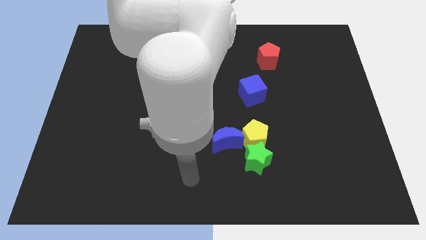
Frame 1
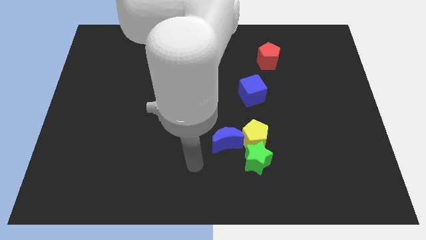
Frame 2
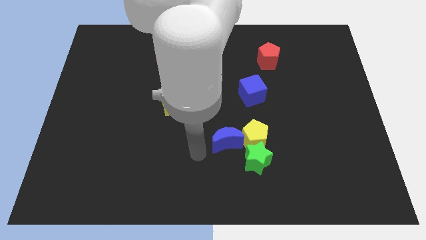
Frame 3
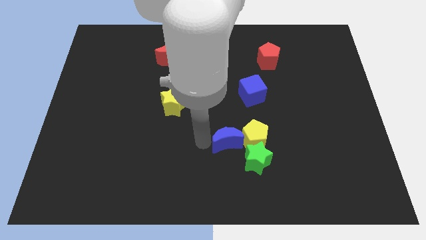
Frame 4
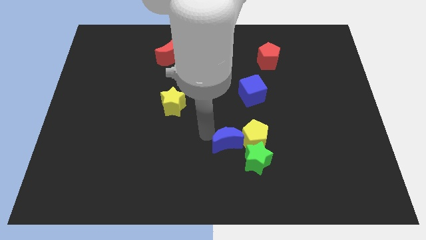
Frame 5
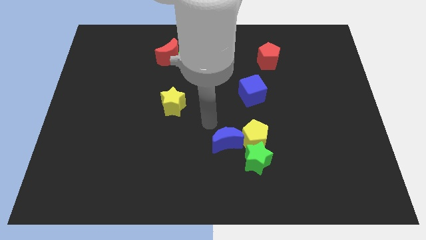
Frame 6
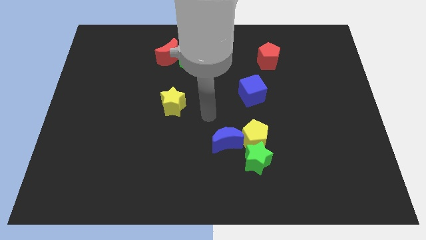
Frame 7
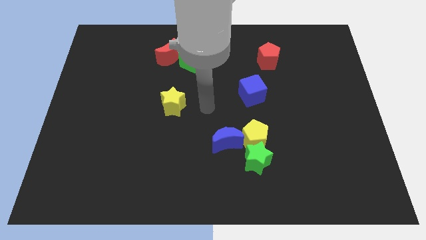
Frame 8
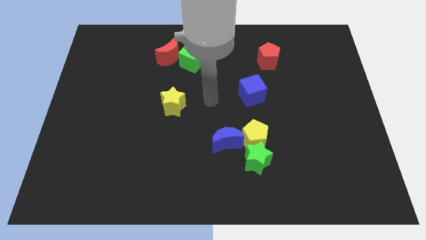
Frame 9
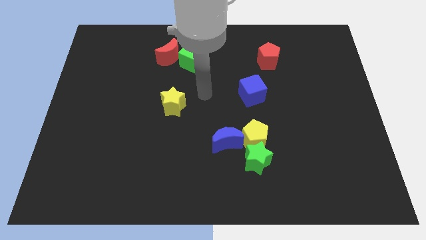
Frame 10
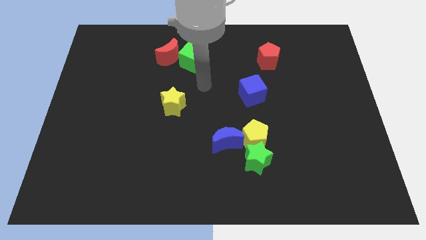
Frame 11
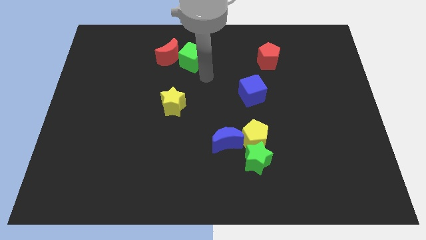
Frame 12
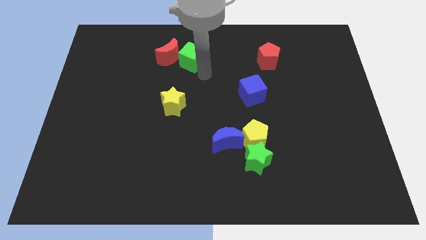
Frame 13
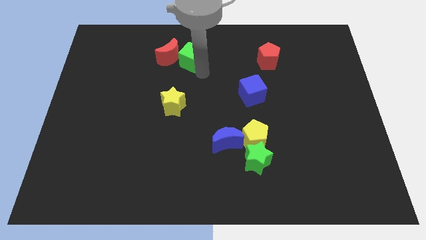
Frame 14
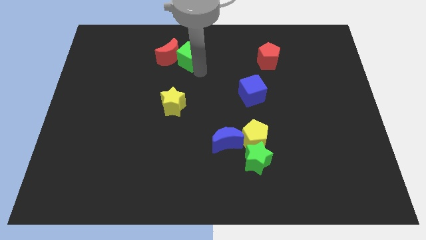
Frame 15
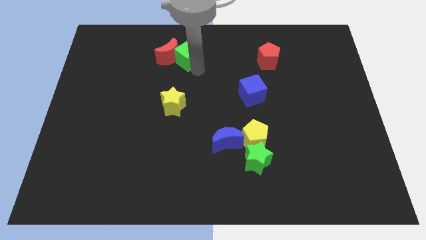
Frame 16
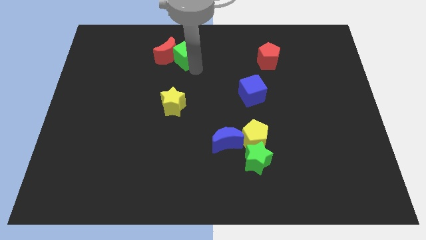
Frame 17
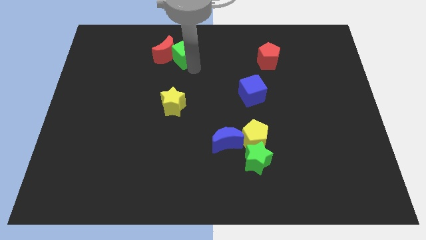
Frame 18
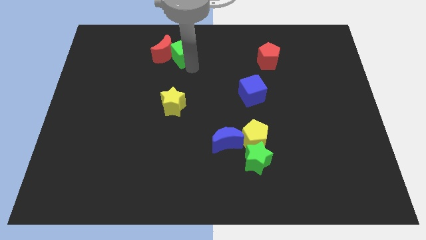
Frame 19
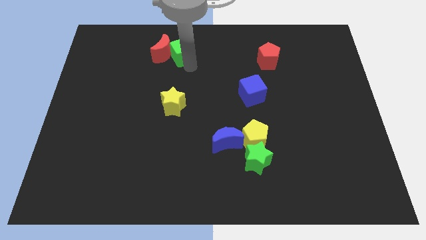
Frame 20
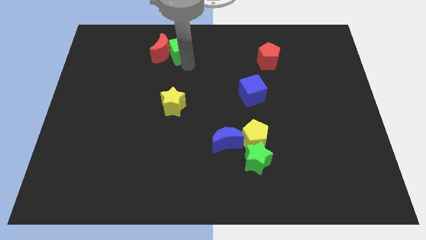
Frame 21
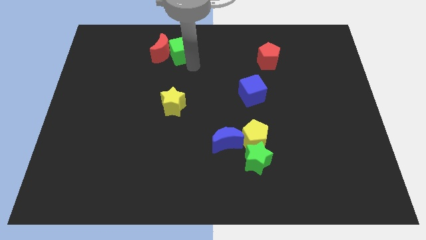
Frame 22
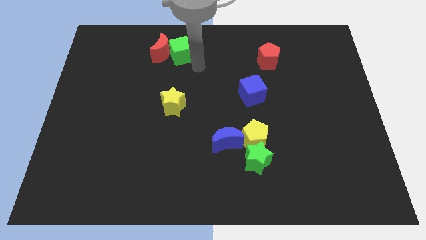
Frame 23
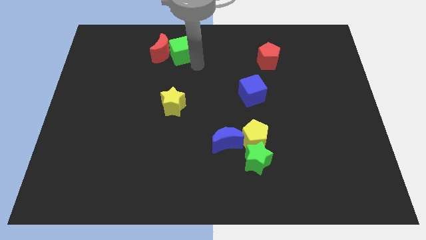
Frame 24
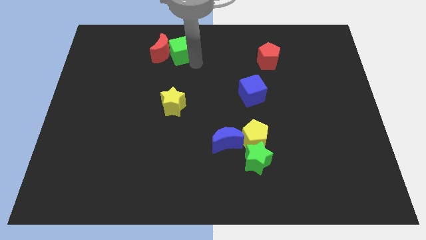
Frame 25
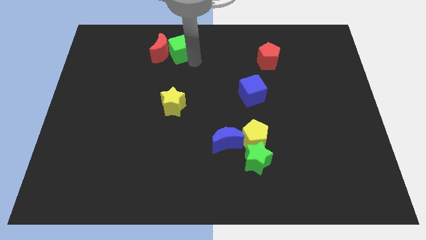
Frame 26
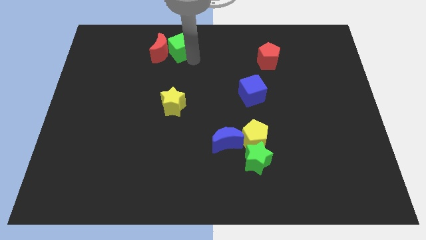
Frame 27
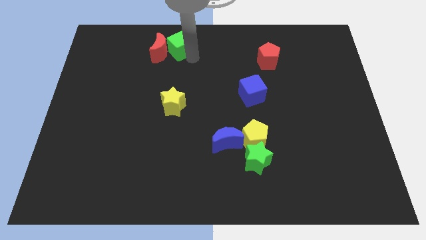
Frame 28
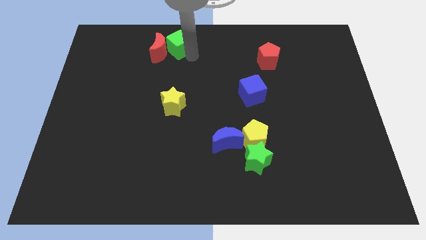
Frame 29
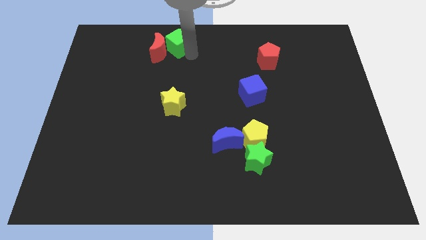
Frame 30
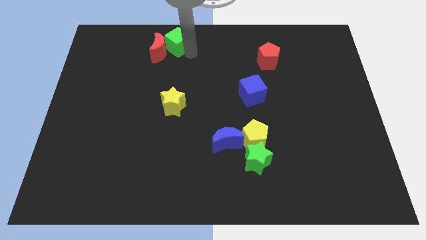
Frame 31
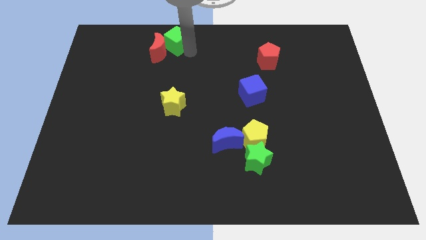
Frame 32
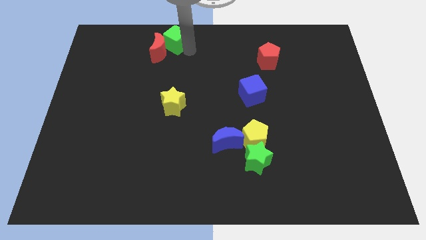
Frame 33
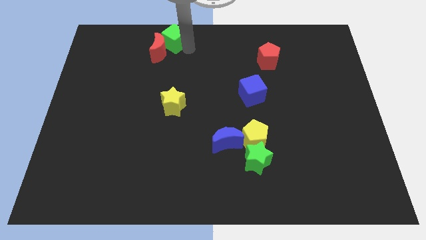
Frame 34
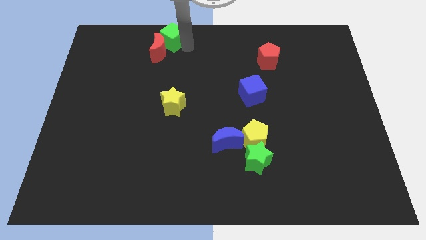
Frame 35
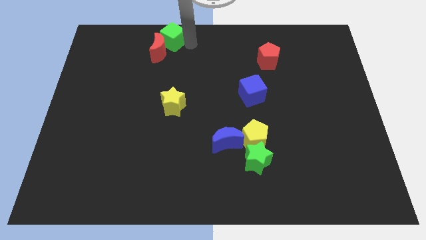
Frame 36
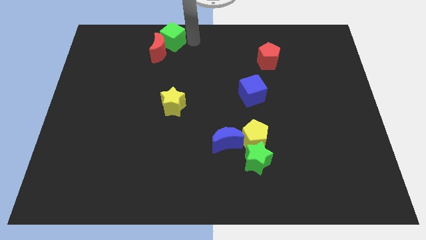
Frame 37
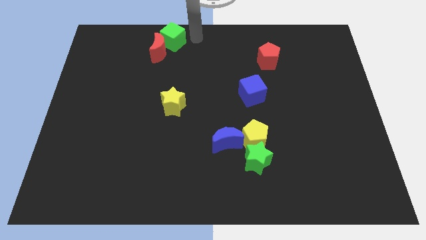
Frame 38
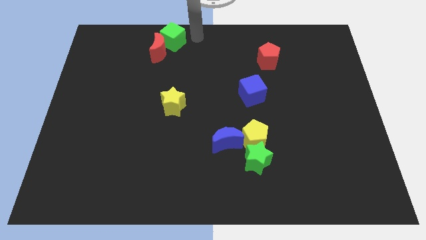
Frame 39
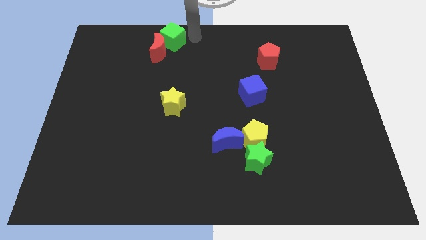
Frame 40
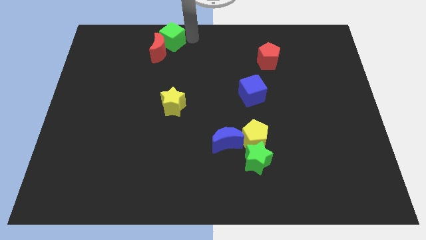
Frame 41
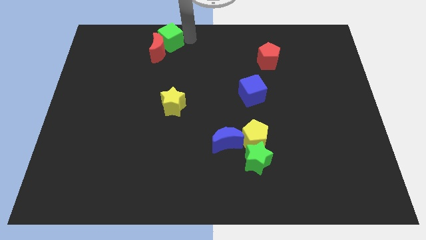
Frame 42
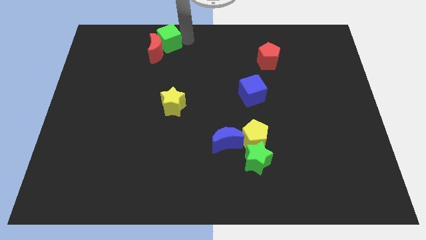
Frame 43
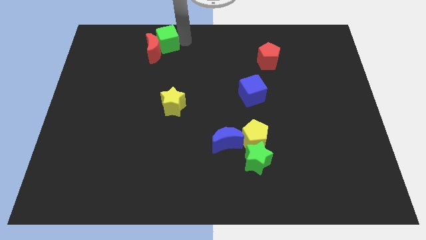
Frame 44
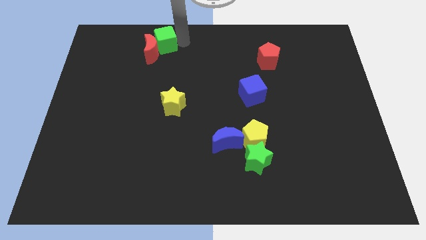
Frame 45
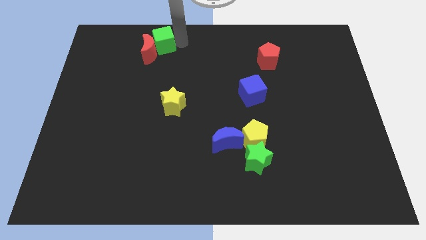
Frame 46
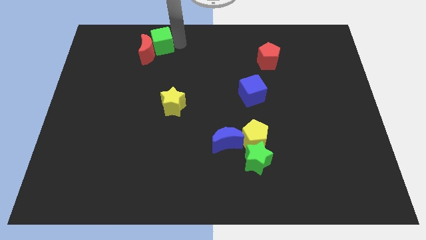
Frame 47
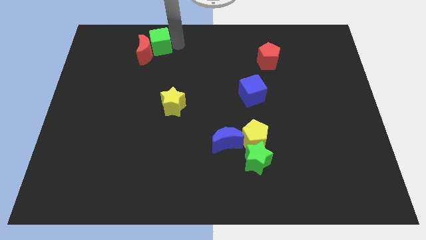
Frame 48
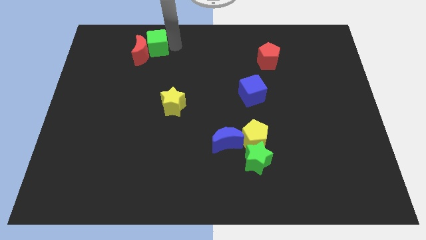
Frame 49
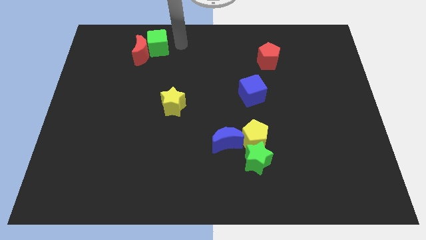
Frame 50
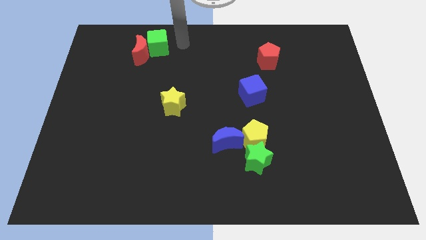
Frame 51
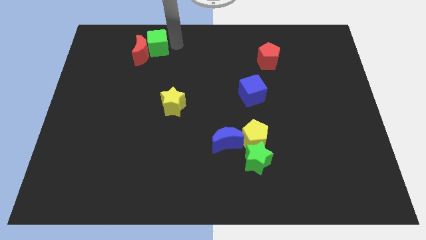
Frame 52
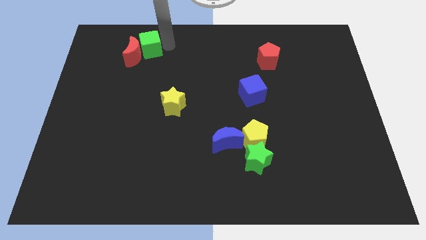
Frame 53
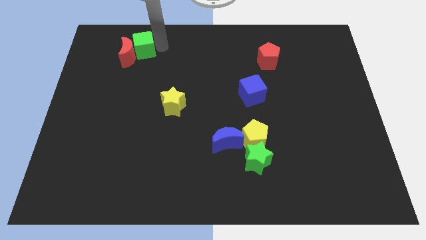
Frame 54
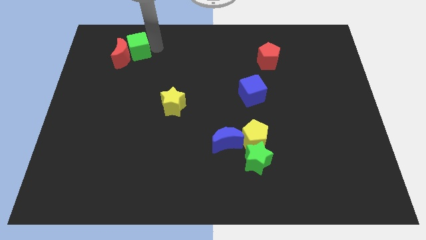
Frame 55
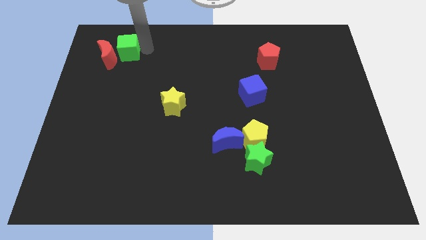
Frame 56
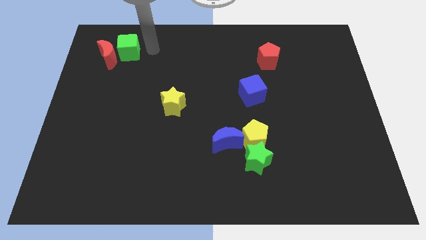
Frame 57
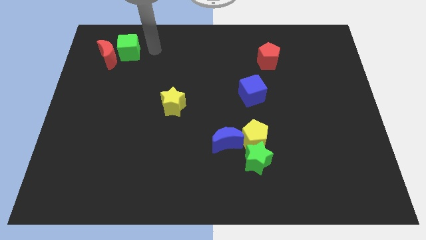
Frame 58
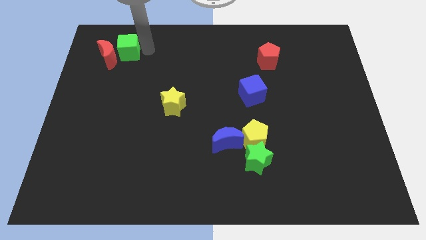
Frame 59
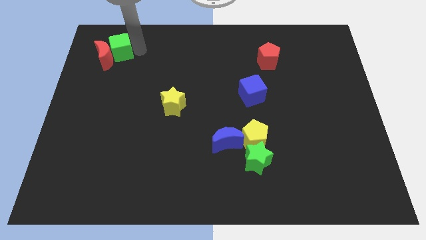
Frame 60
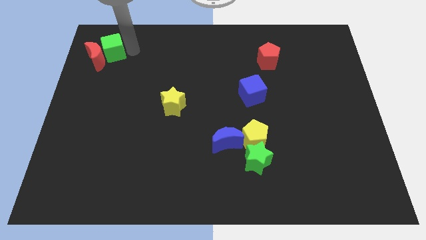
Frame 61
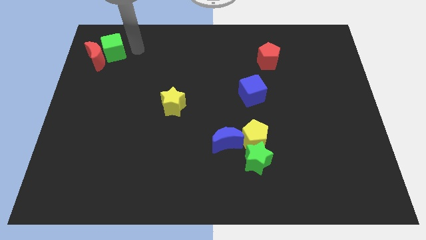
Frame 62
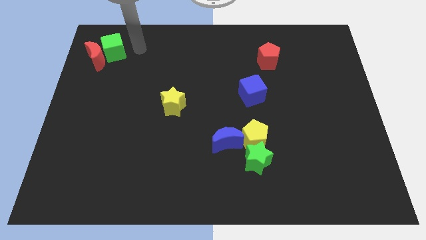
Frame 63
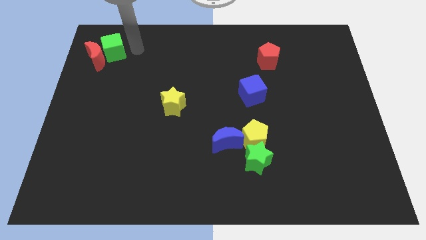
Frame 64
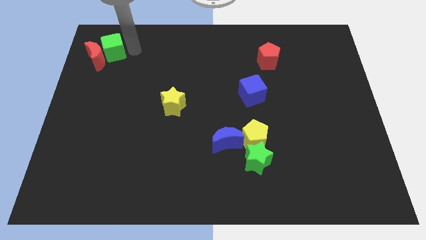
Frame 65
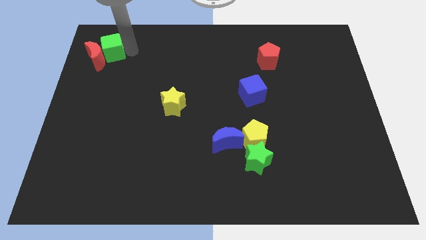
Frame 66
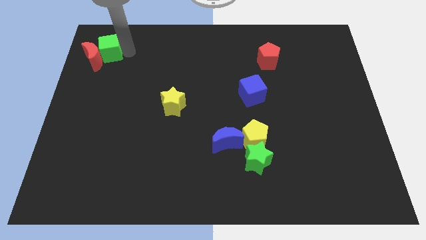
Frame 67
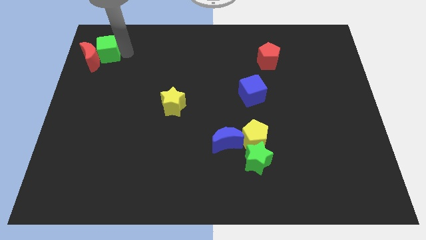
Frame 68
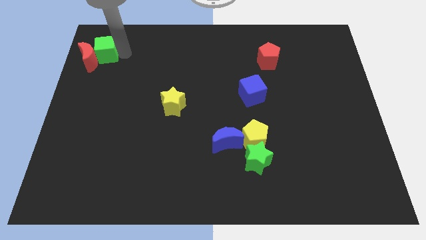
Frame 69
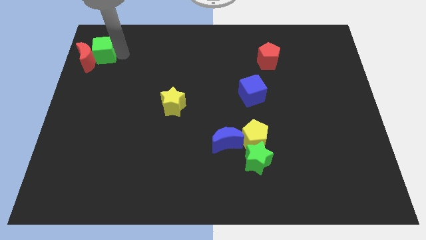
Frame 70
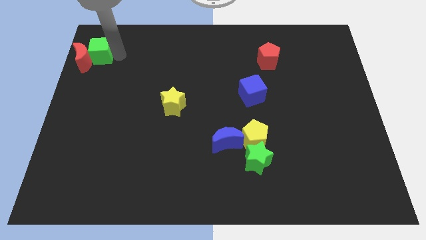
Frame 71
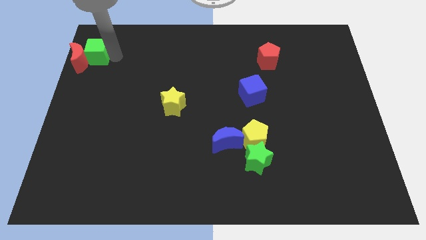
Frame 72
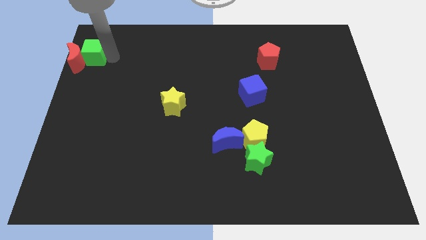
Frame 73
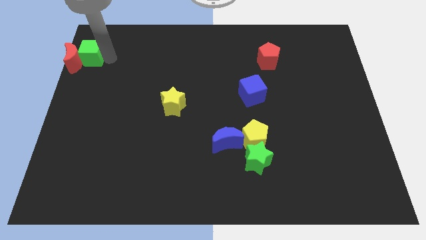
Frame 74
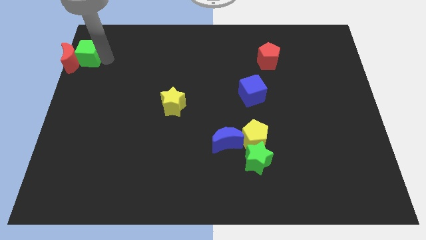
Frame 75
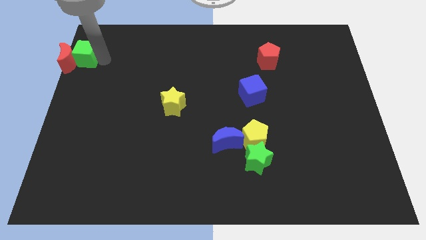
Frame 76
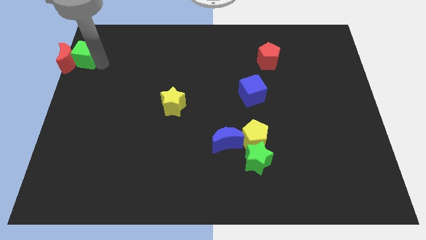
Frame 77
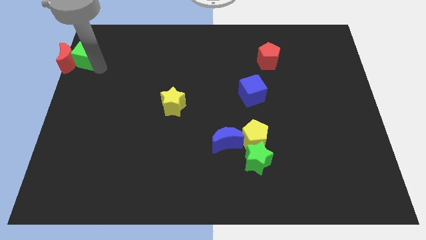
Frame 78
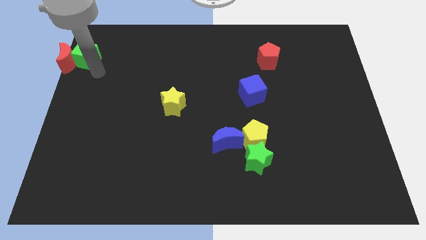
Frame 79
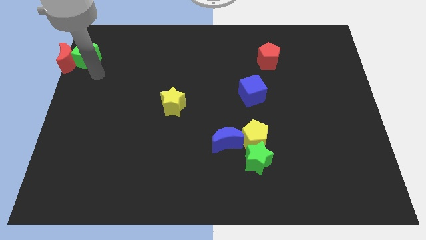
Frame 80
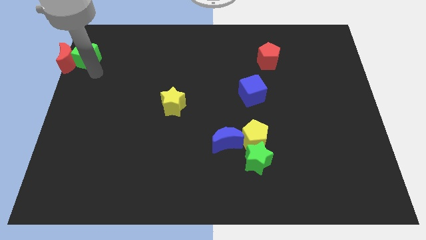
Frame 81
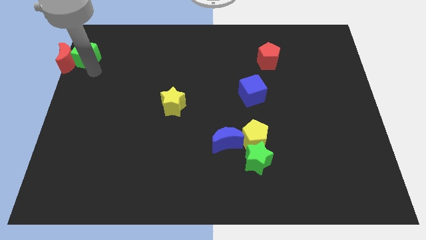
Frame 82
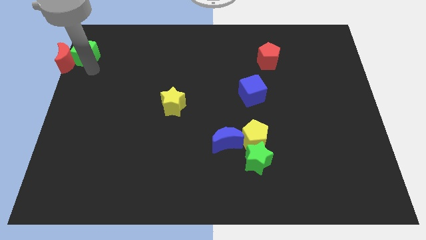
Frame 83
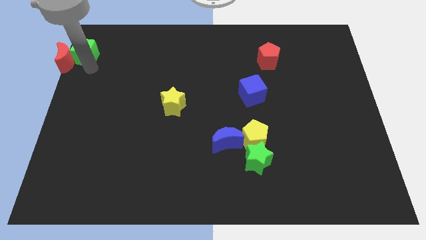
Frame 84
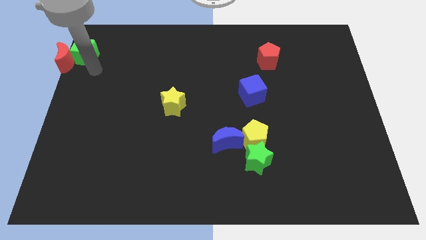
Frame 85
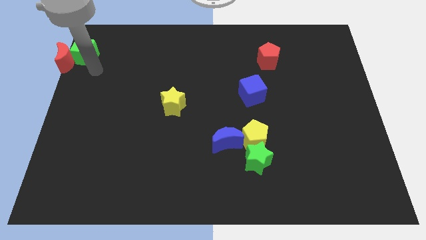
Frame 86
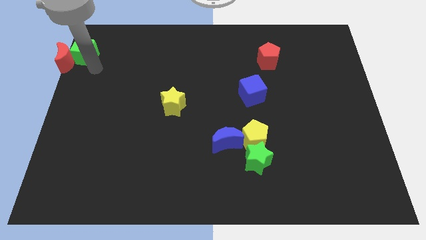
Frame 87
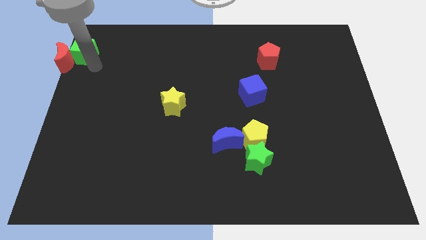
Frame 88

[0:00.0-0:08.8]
slide the green cube to the top left
